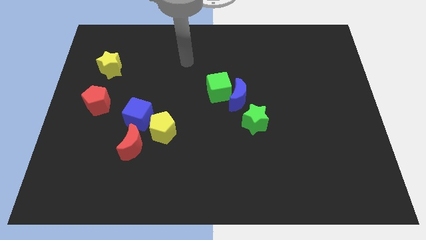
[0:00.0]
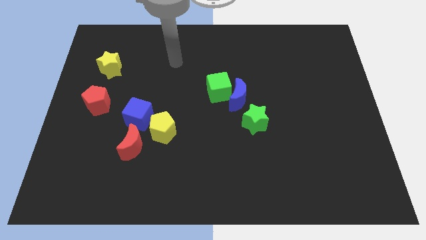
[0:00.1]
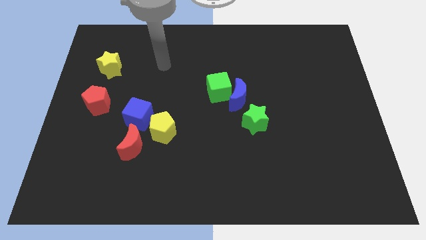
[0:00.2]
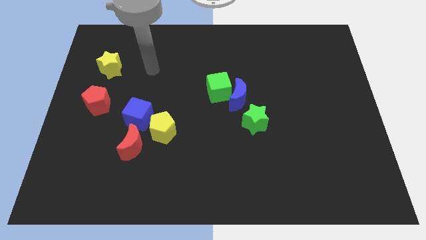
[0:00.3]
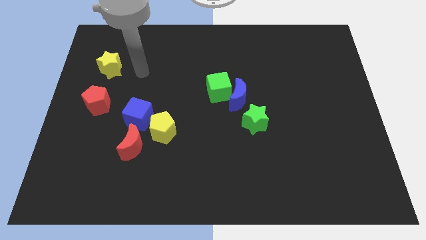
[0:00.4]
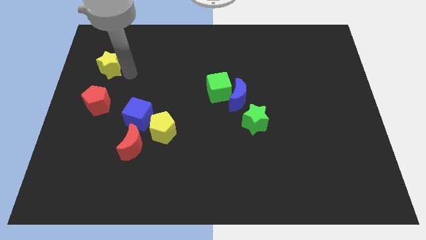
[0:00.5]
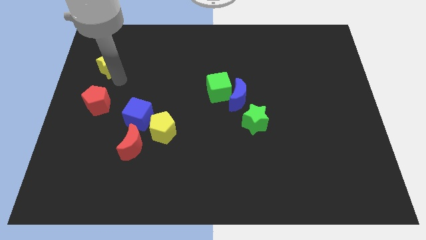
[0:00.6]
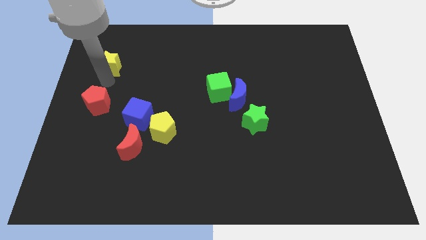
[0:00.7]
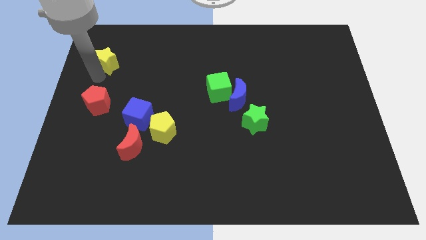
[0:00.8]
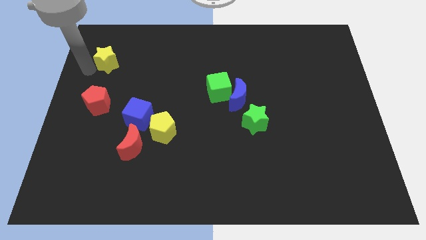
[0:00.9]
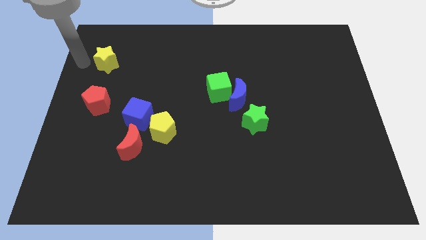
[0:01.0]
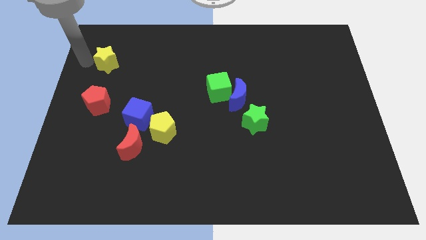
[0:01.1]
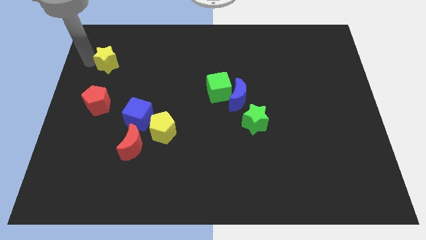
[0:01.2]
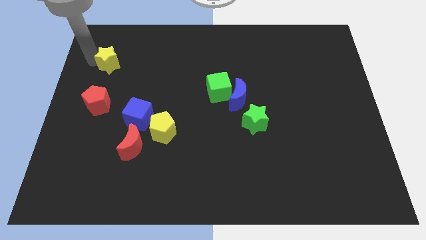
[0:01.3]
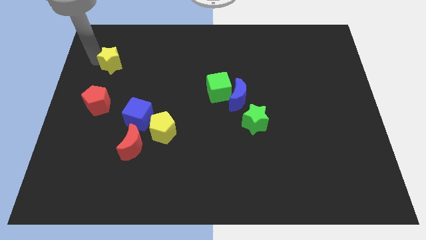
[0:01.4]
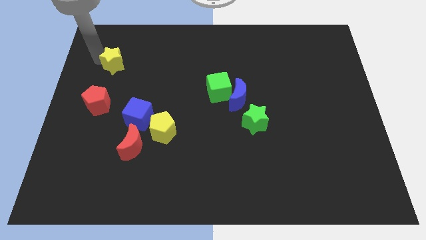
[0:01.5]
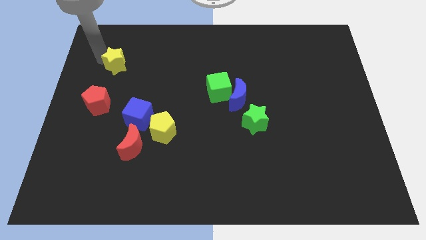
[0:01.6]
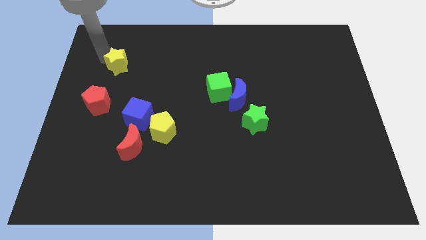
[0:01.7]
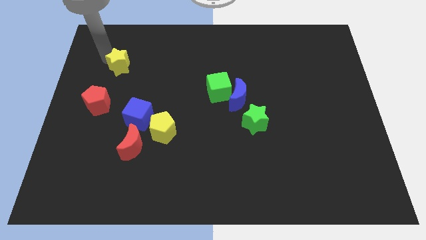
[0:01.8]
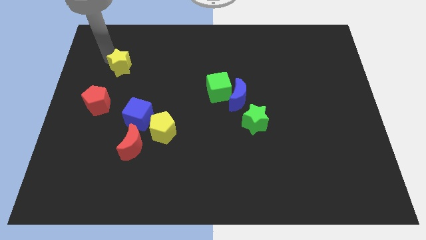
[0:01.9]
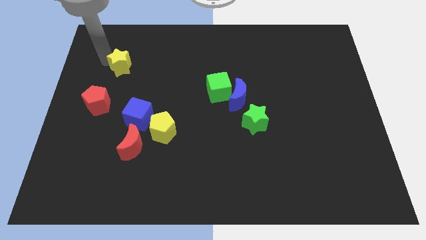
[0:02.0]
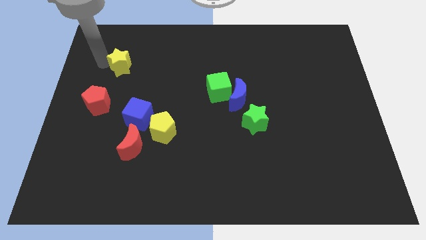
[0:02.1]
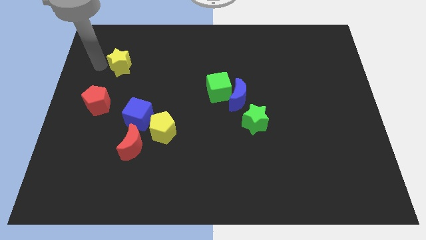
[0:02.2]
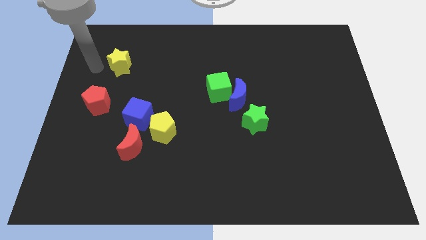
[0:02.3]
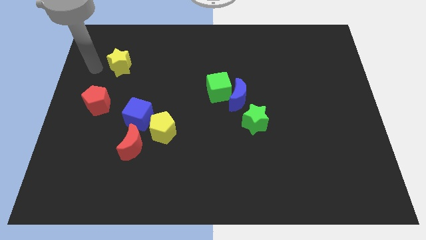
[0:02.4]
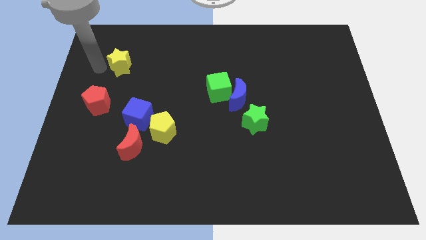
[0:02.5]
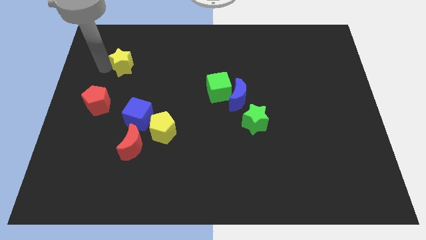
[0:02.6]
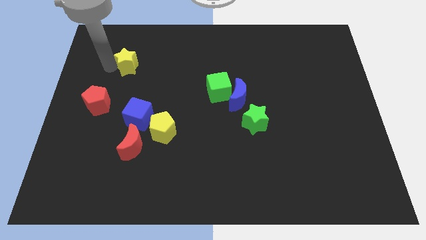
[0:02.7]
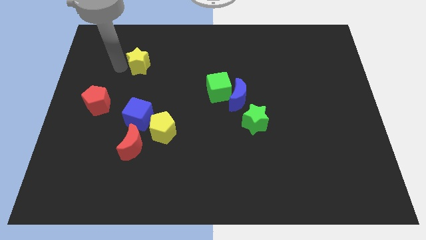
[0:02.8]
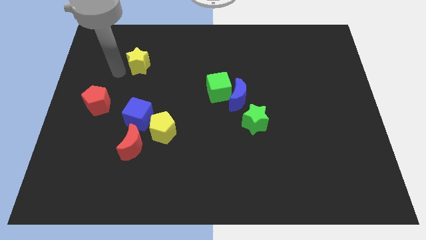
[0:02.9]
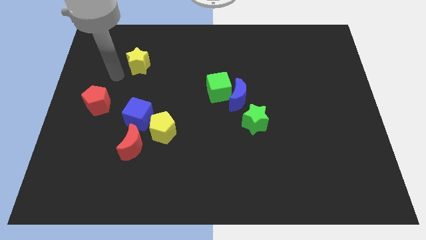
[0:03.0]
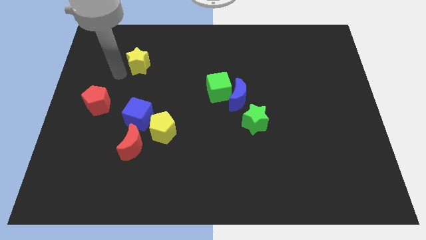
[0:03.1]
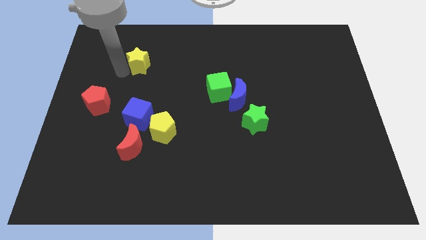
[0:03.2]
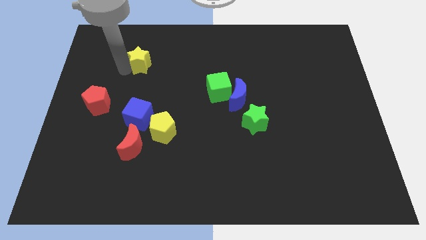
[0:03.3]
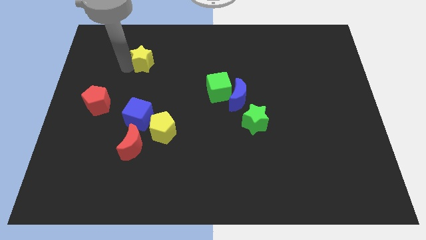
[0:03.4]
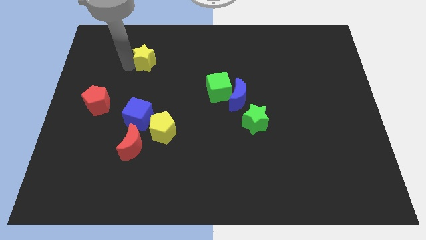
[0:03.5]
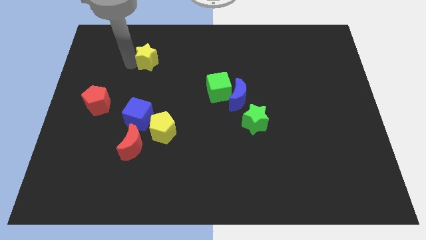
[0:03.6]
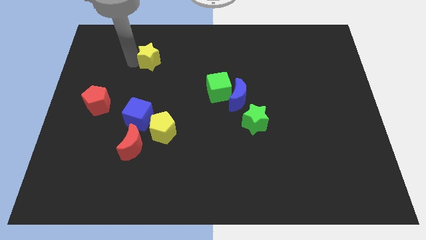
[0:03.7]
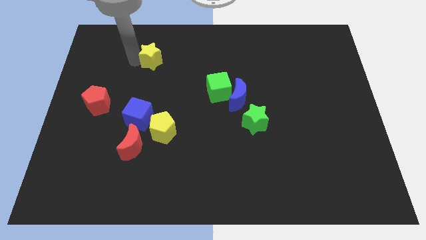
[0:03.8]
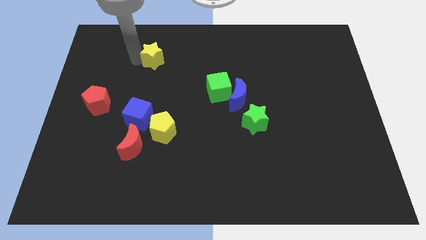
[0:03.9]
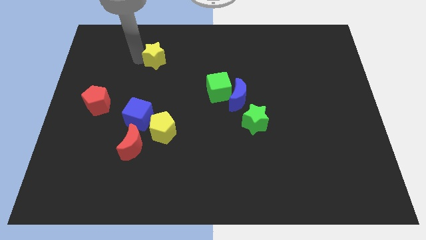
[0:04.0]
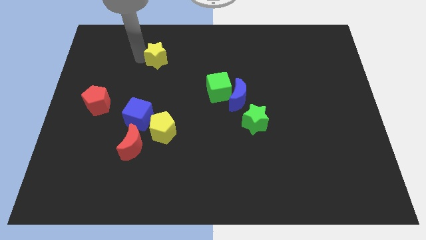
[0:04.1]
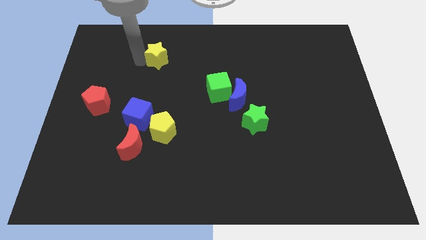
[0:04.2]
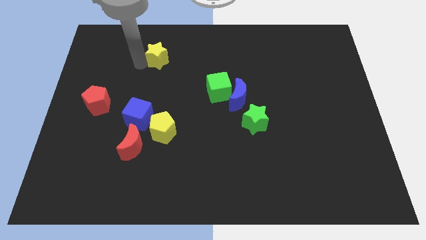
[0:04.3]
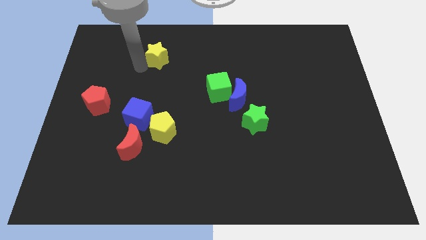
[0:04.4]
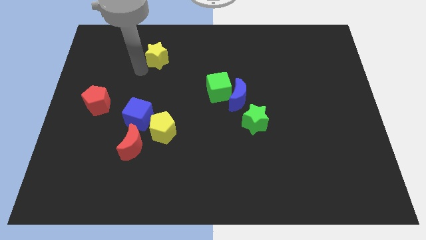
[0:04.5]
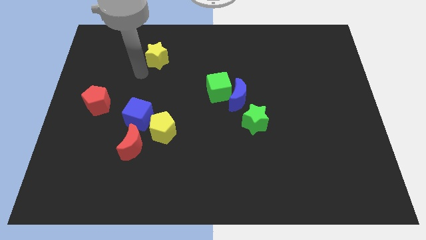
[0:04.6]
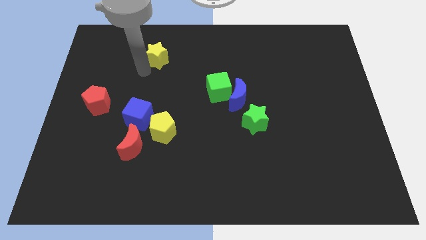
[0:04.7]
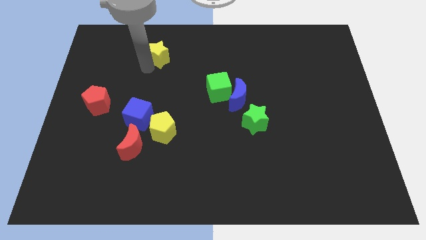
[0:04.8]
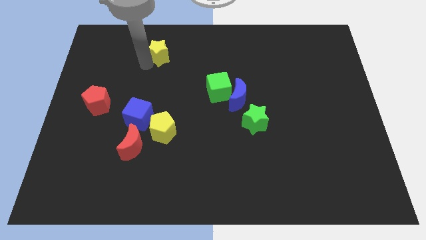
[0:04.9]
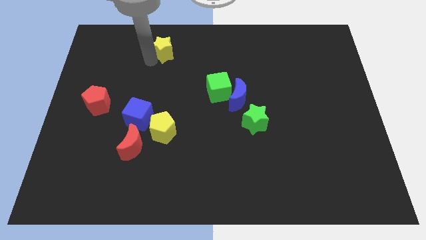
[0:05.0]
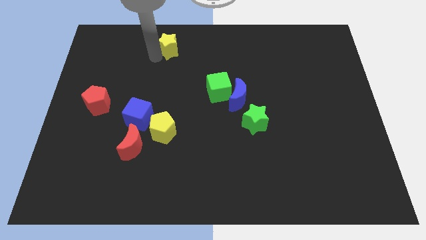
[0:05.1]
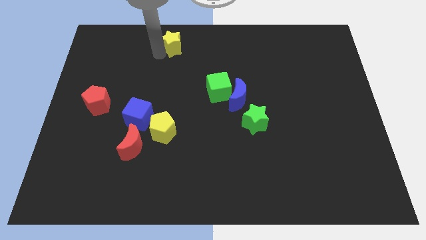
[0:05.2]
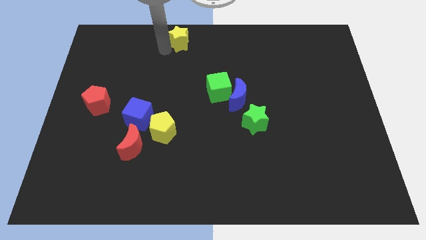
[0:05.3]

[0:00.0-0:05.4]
push the yellow star to the towards your base

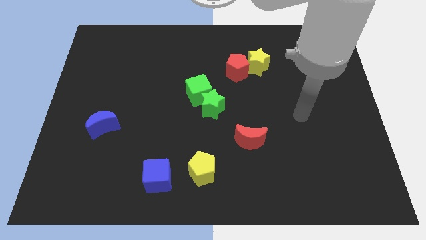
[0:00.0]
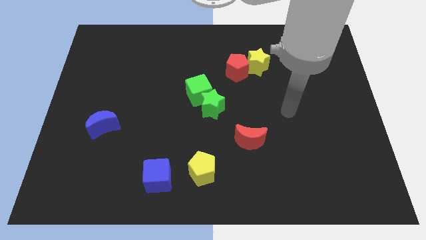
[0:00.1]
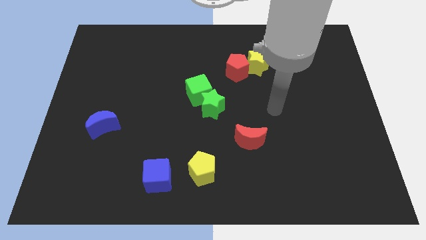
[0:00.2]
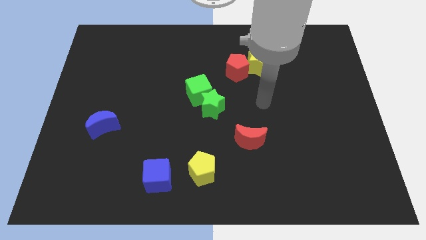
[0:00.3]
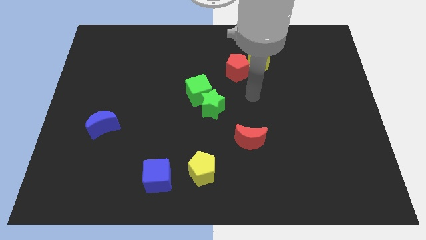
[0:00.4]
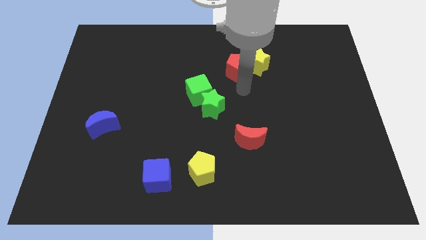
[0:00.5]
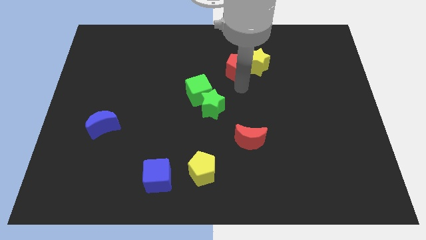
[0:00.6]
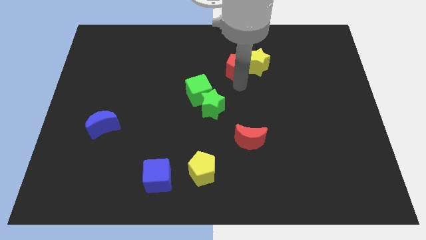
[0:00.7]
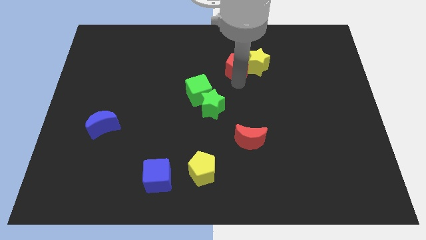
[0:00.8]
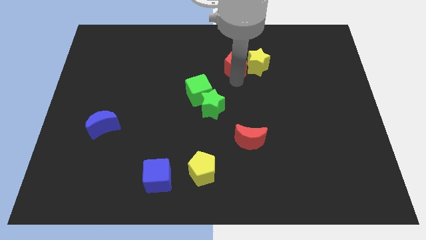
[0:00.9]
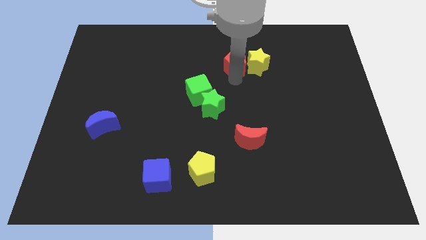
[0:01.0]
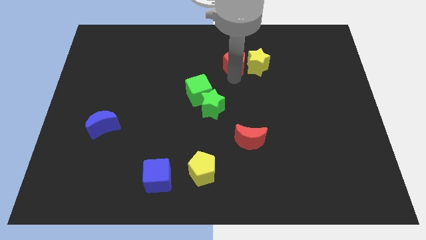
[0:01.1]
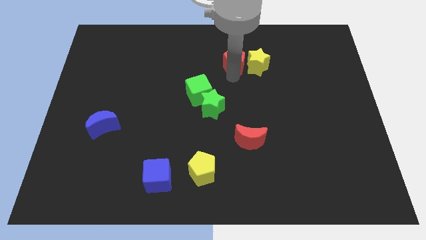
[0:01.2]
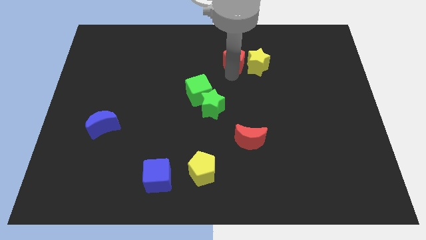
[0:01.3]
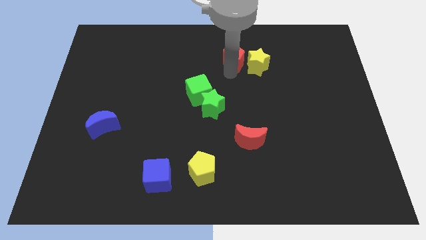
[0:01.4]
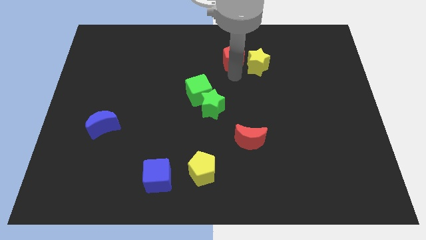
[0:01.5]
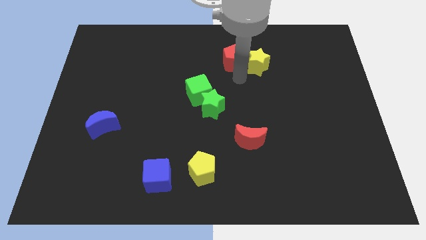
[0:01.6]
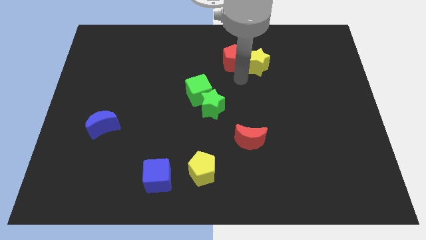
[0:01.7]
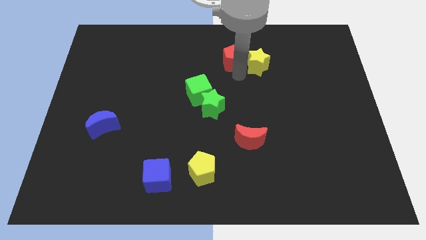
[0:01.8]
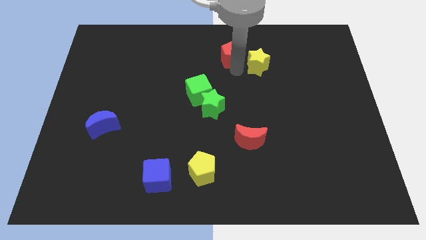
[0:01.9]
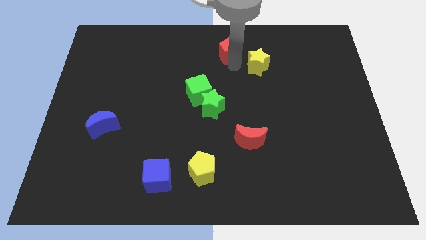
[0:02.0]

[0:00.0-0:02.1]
move the red pentagon to the towards your base
